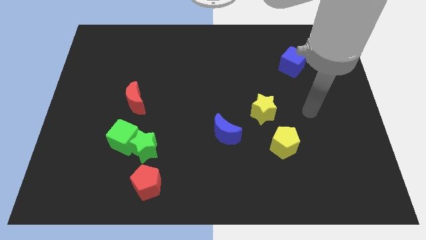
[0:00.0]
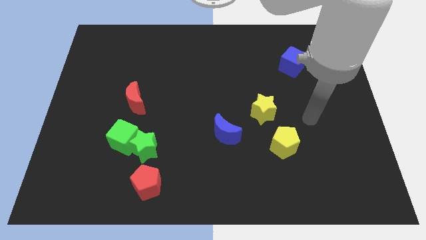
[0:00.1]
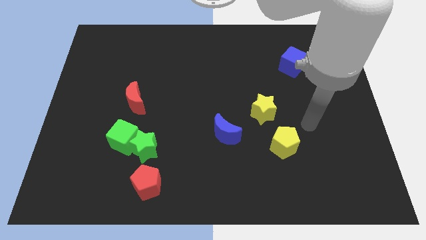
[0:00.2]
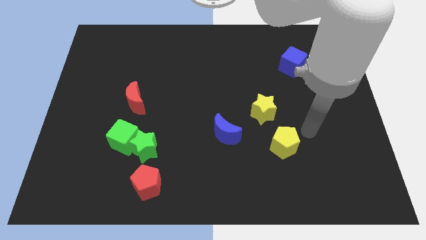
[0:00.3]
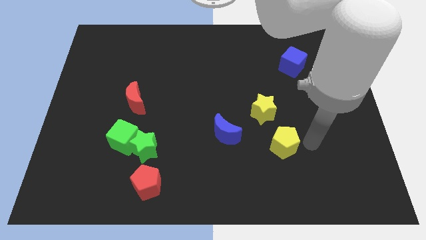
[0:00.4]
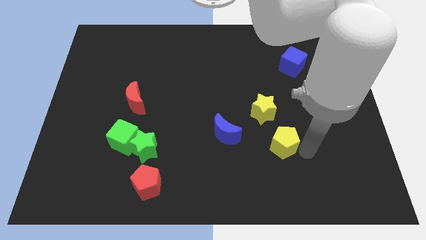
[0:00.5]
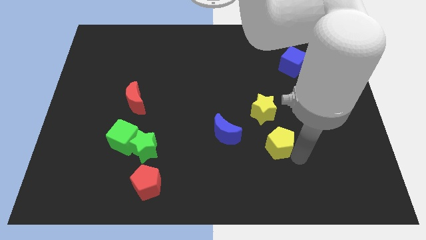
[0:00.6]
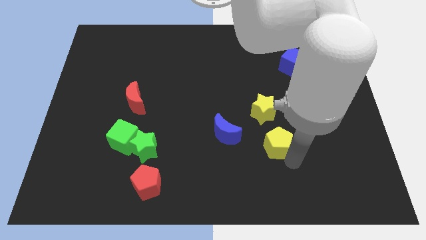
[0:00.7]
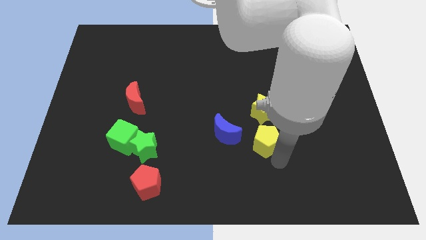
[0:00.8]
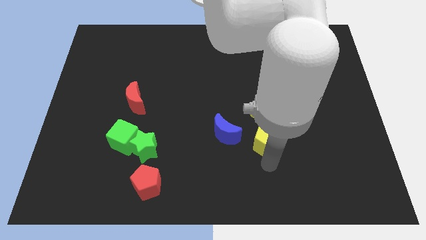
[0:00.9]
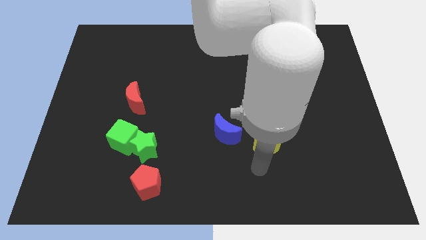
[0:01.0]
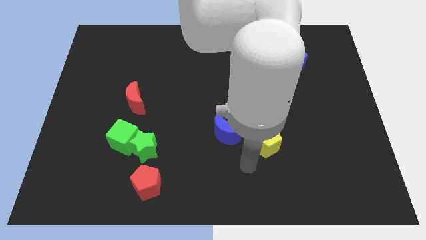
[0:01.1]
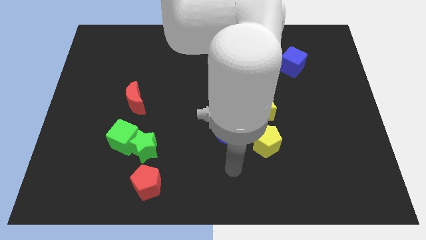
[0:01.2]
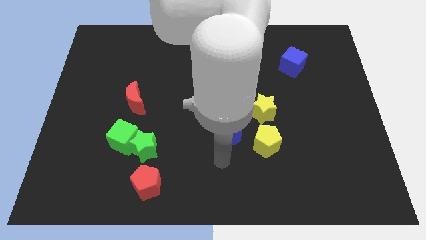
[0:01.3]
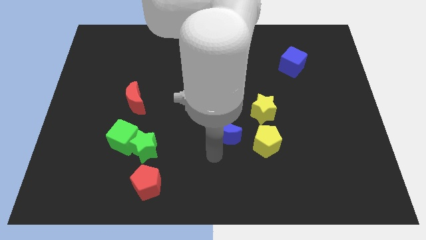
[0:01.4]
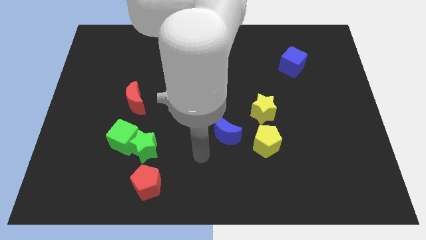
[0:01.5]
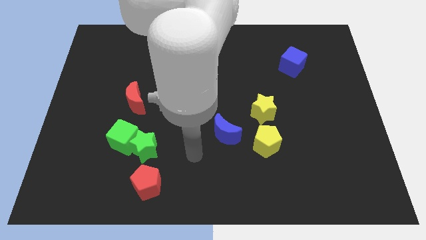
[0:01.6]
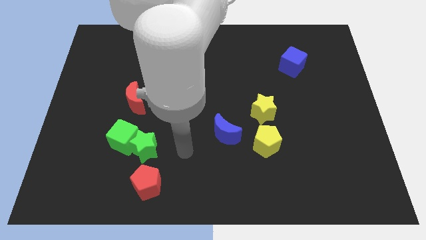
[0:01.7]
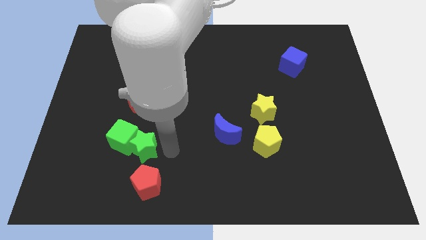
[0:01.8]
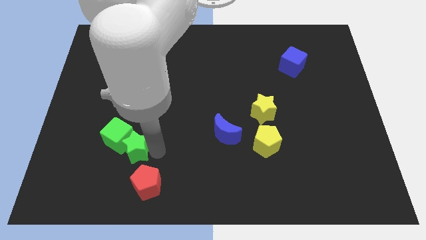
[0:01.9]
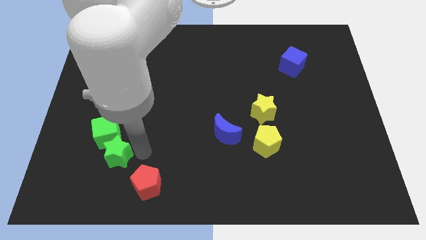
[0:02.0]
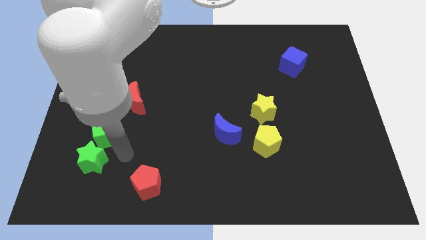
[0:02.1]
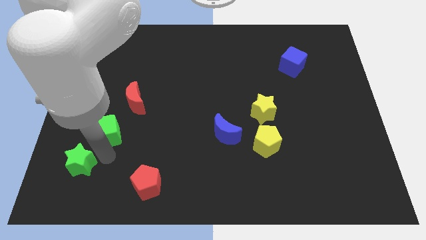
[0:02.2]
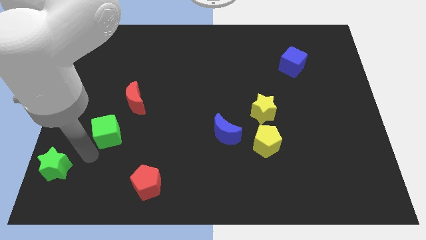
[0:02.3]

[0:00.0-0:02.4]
separate the green cube from the green star

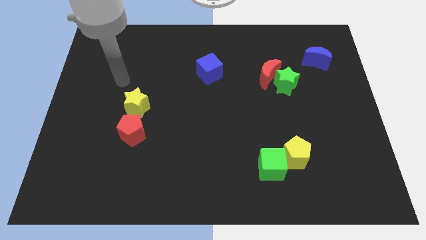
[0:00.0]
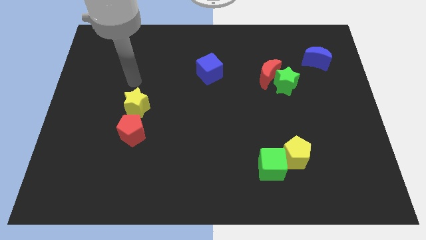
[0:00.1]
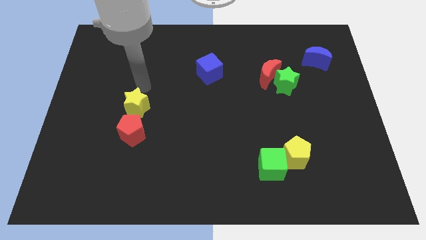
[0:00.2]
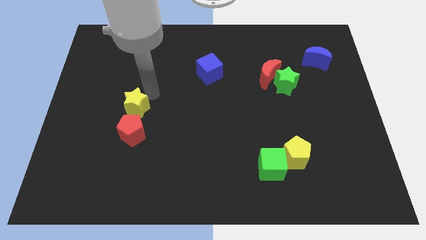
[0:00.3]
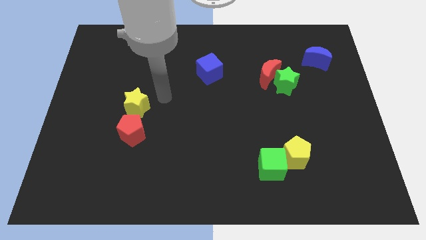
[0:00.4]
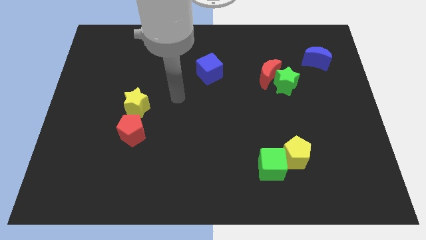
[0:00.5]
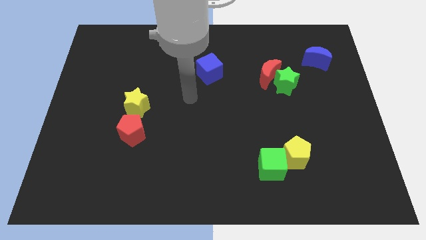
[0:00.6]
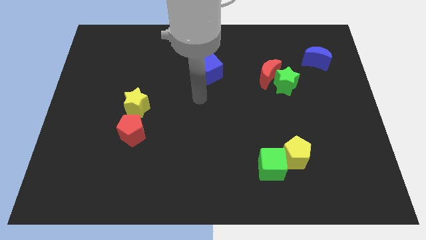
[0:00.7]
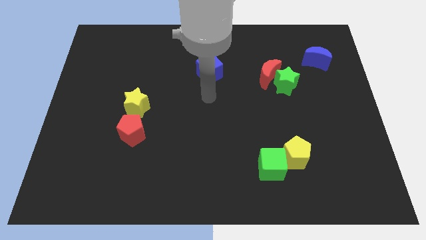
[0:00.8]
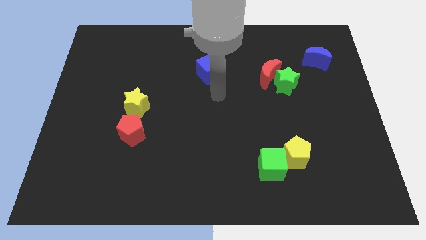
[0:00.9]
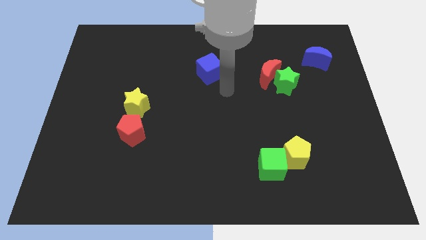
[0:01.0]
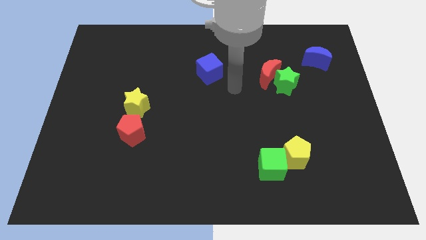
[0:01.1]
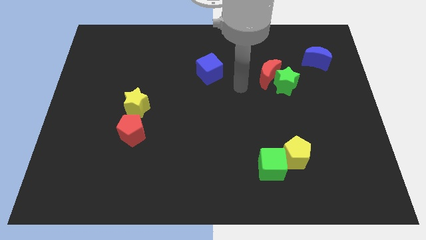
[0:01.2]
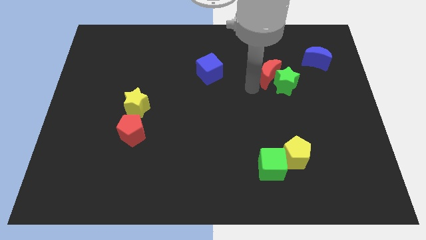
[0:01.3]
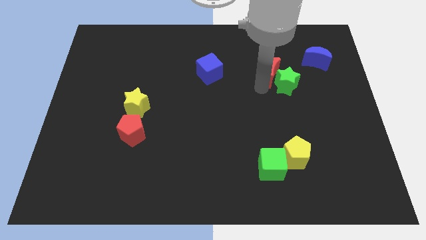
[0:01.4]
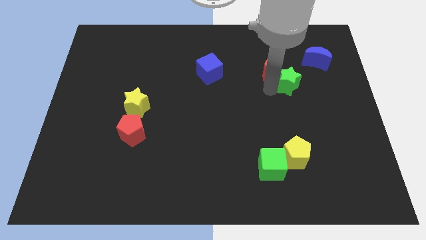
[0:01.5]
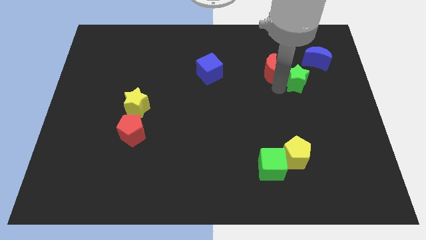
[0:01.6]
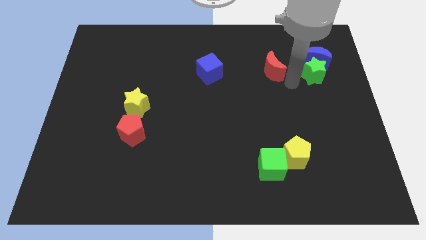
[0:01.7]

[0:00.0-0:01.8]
move the red moon away from the green star

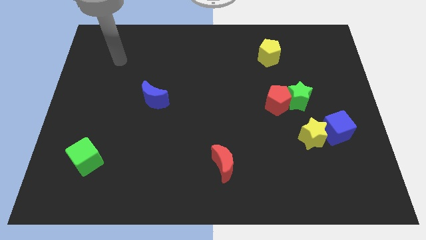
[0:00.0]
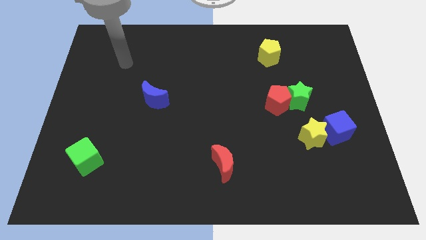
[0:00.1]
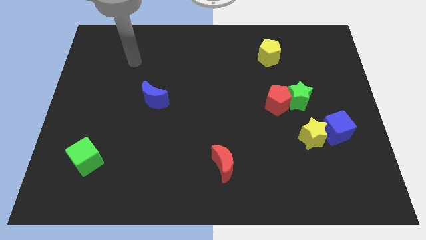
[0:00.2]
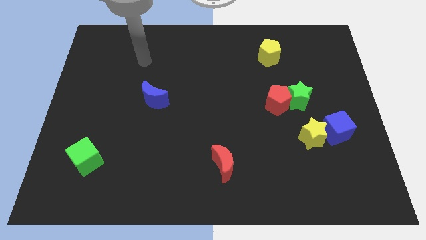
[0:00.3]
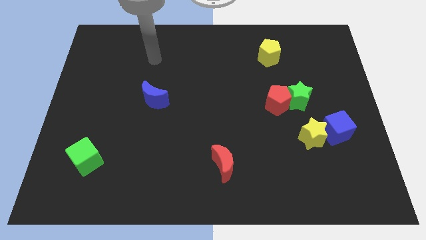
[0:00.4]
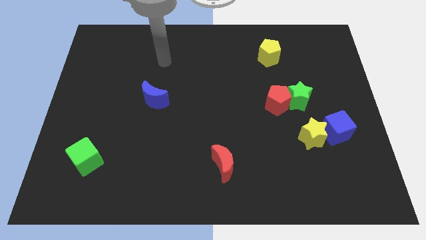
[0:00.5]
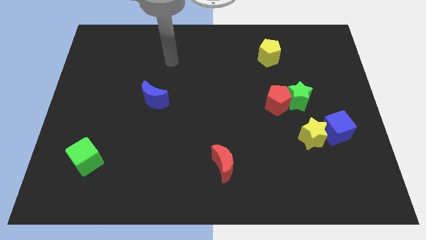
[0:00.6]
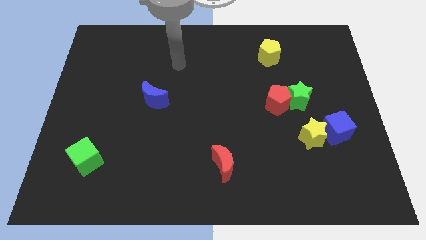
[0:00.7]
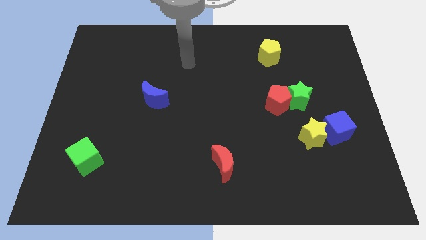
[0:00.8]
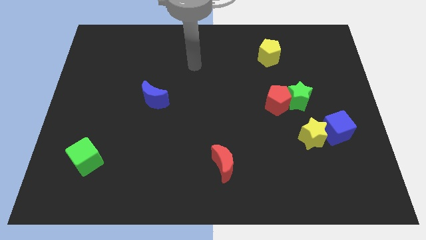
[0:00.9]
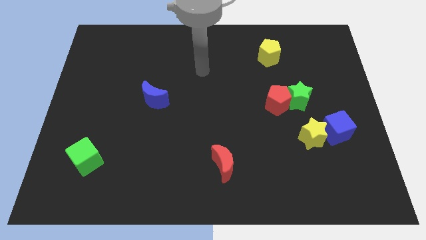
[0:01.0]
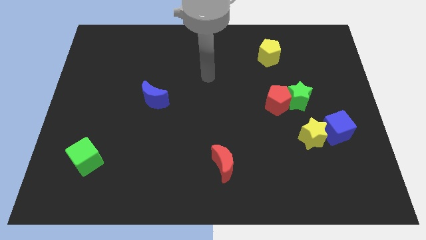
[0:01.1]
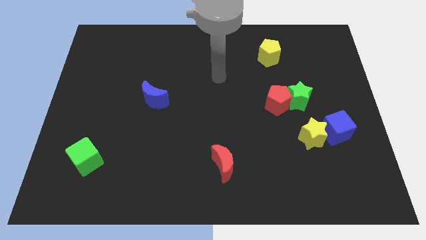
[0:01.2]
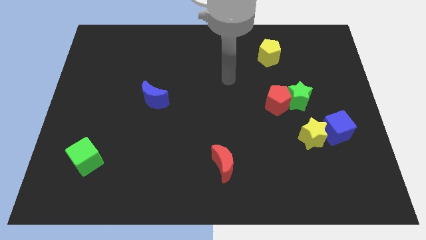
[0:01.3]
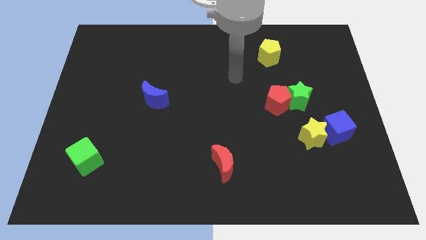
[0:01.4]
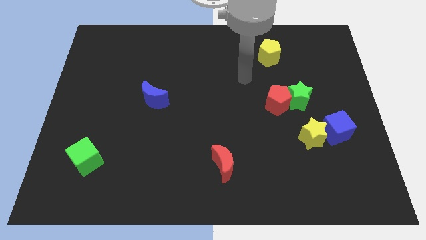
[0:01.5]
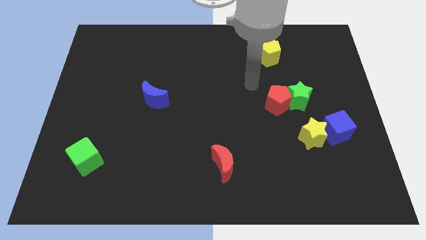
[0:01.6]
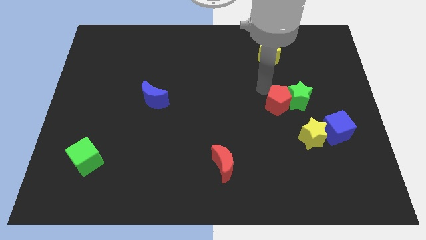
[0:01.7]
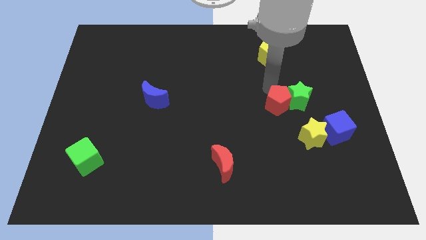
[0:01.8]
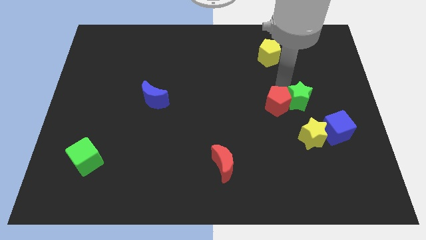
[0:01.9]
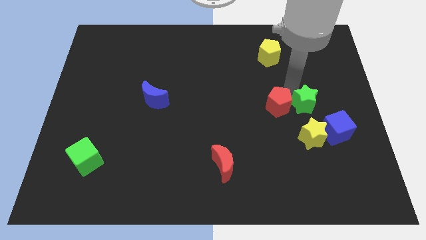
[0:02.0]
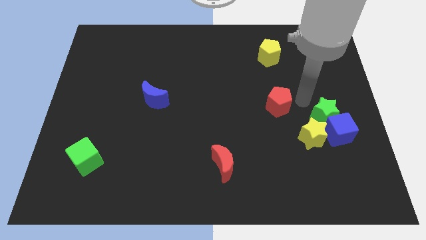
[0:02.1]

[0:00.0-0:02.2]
pull the red pentagon apart from the green star

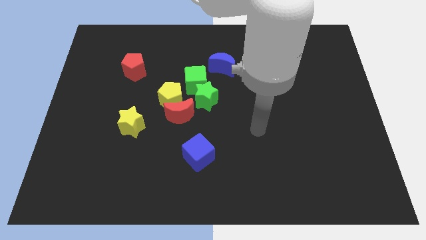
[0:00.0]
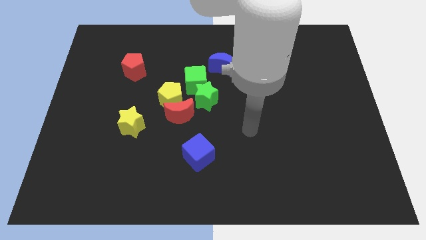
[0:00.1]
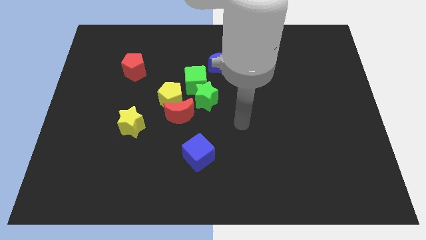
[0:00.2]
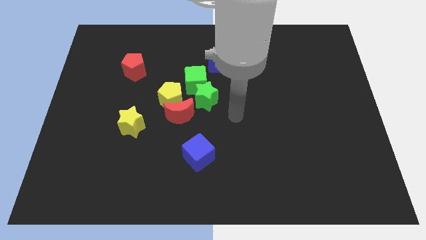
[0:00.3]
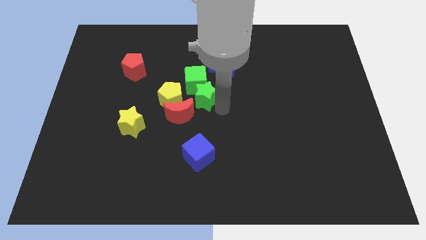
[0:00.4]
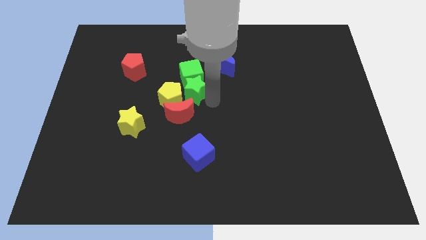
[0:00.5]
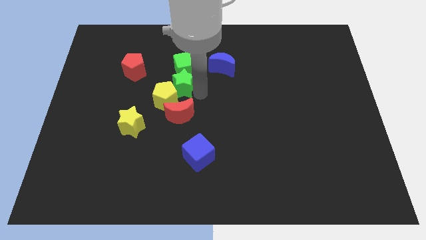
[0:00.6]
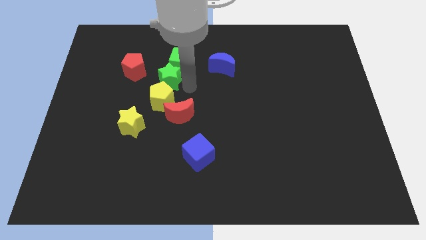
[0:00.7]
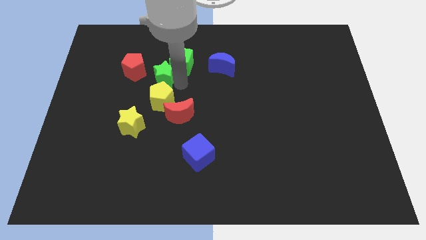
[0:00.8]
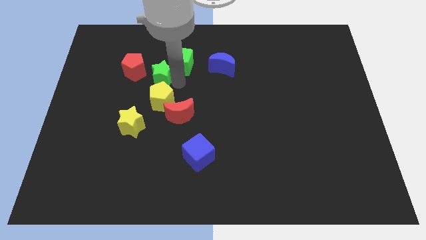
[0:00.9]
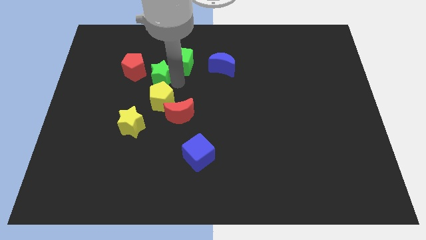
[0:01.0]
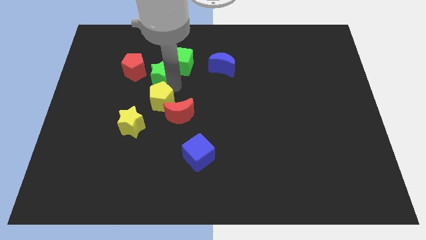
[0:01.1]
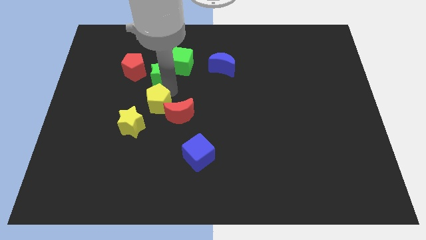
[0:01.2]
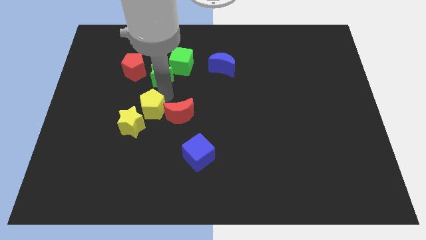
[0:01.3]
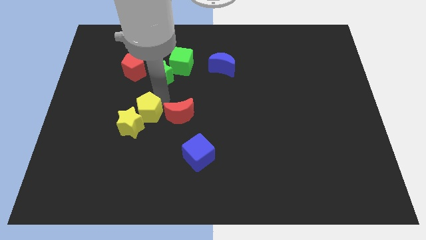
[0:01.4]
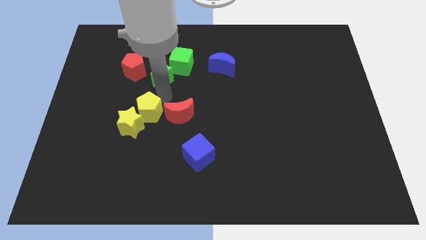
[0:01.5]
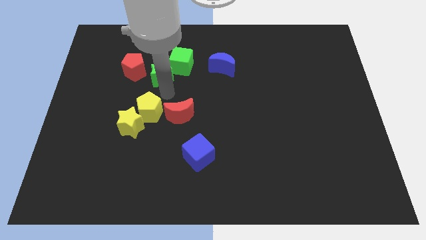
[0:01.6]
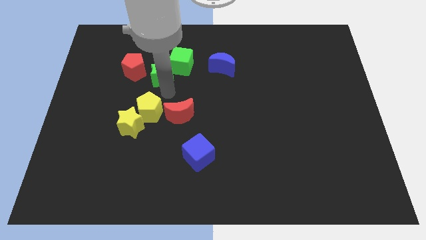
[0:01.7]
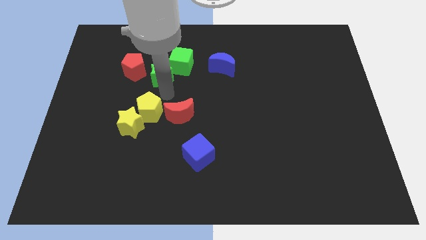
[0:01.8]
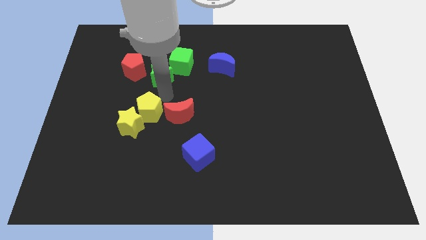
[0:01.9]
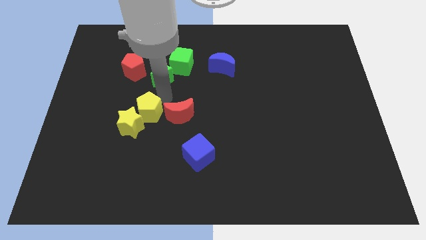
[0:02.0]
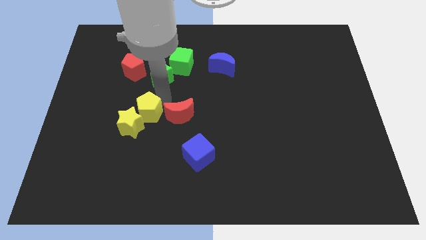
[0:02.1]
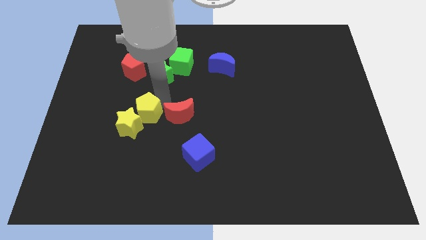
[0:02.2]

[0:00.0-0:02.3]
move the yellow pentagon away from the group of blocks

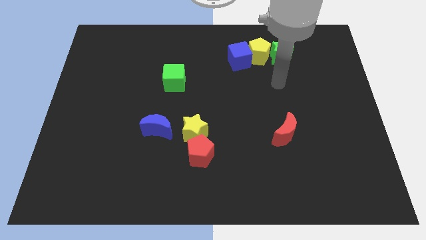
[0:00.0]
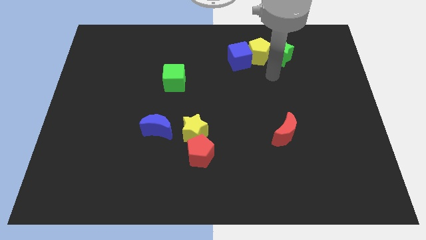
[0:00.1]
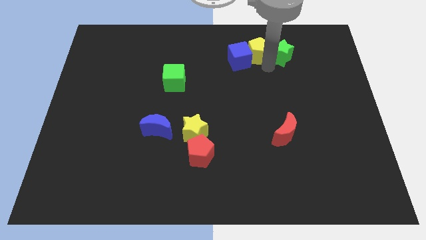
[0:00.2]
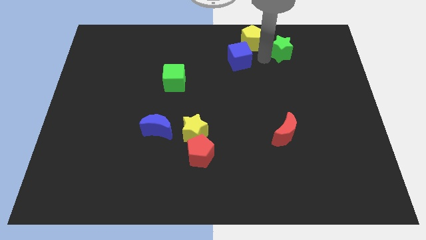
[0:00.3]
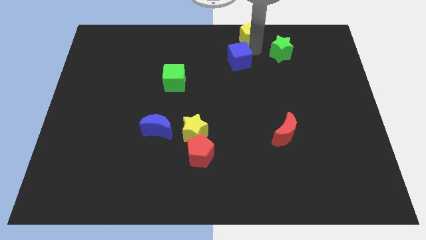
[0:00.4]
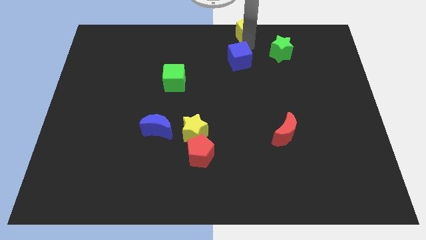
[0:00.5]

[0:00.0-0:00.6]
move the blue cube away from the yellow pentagon
